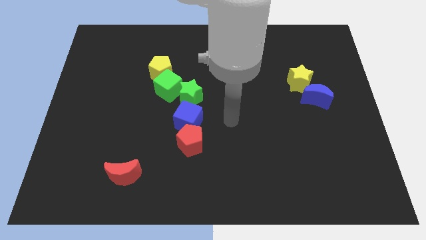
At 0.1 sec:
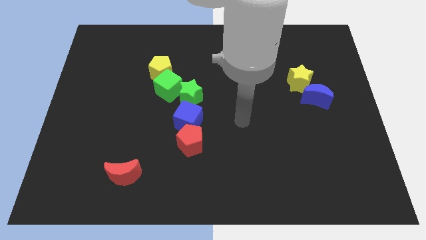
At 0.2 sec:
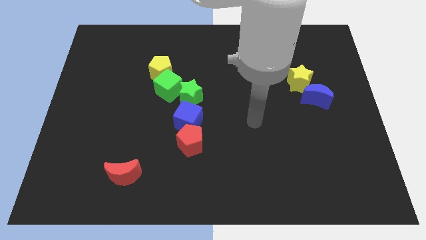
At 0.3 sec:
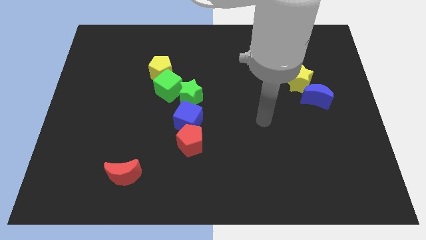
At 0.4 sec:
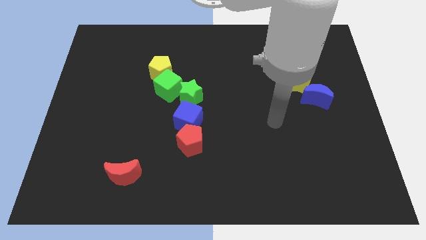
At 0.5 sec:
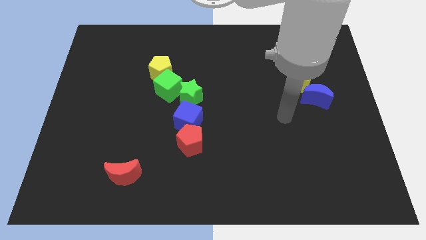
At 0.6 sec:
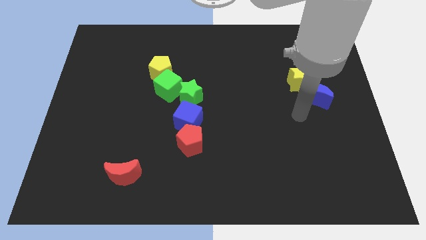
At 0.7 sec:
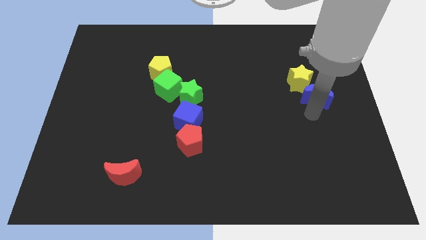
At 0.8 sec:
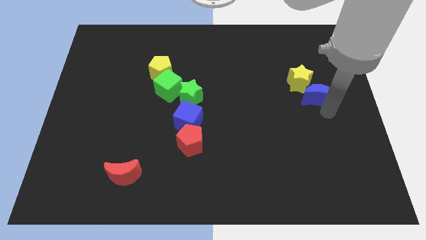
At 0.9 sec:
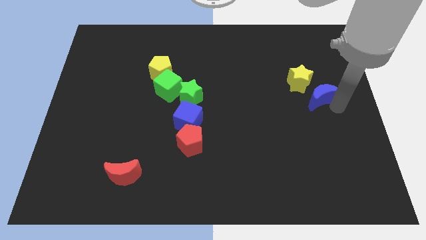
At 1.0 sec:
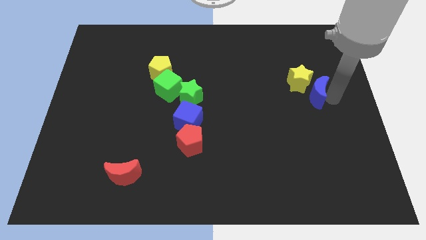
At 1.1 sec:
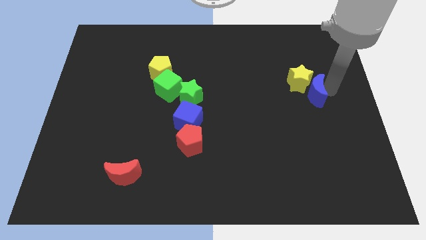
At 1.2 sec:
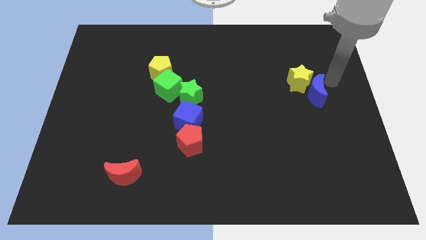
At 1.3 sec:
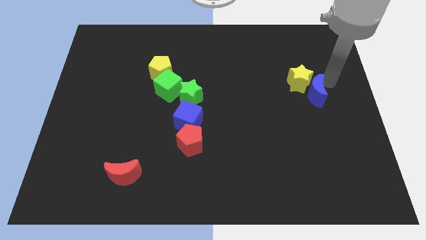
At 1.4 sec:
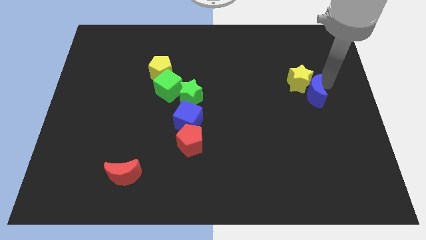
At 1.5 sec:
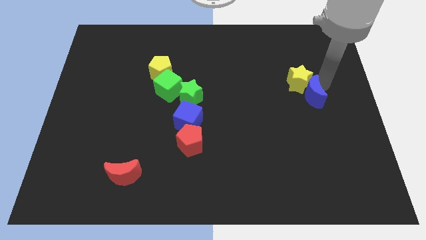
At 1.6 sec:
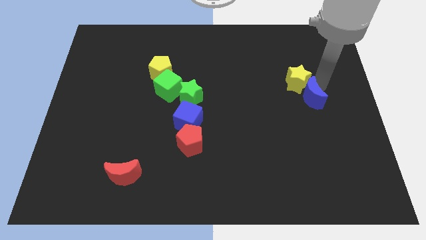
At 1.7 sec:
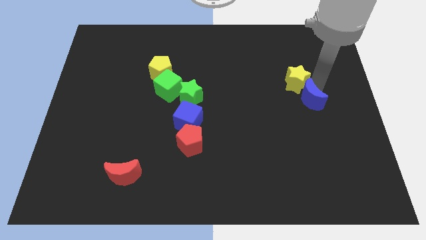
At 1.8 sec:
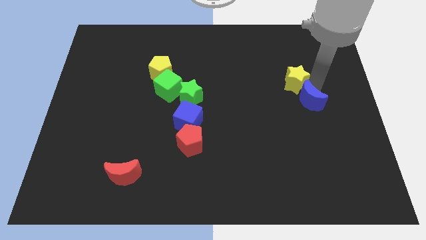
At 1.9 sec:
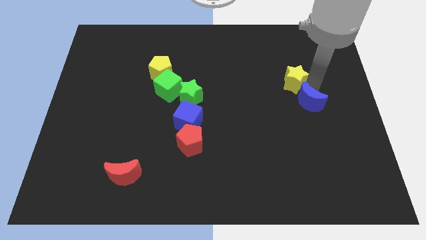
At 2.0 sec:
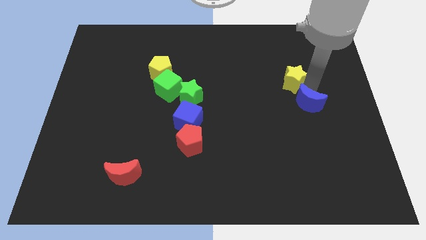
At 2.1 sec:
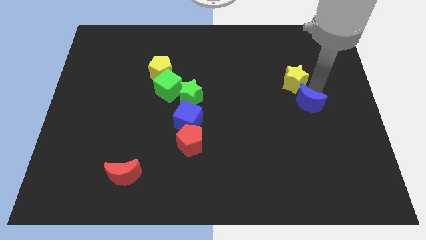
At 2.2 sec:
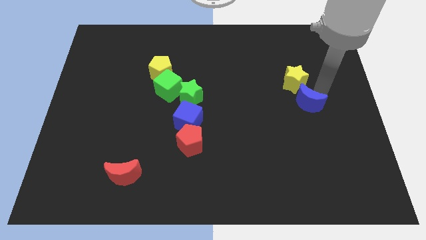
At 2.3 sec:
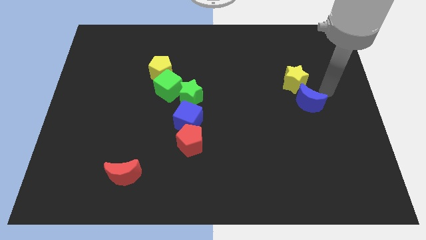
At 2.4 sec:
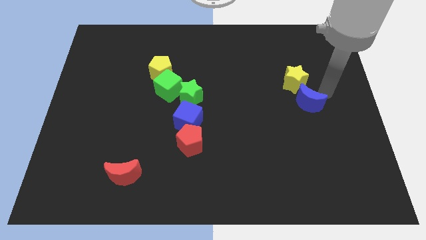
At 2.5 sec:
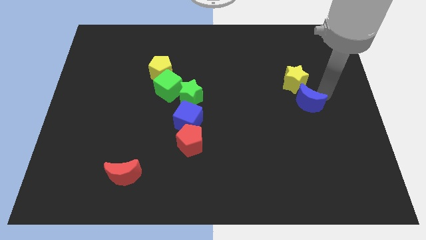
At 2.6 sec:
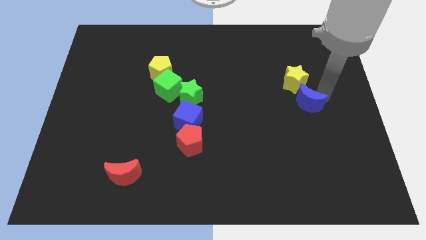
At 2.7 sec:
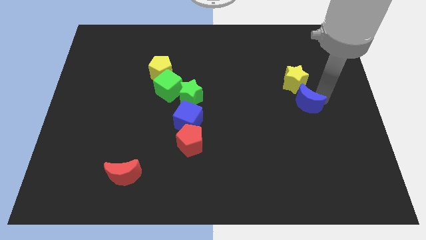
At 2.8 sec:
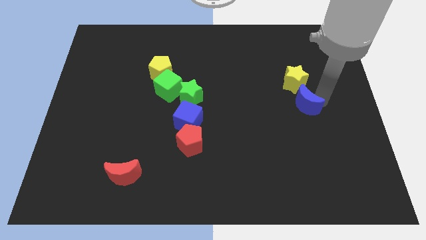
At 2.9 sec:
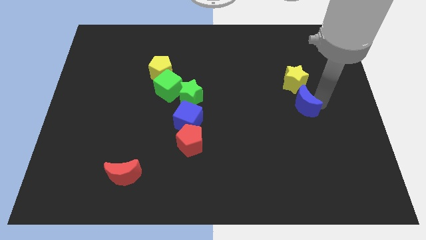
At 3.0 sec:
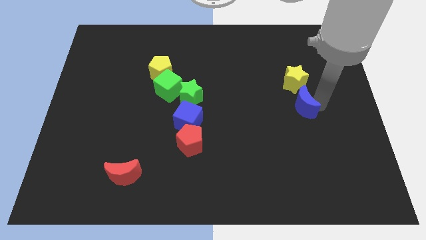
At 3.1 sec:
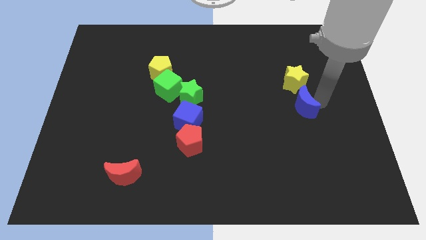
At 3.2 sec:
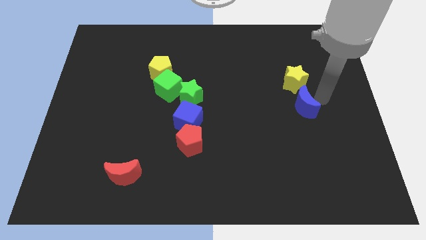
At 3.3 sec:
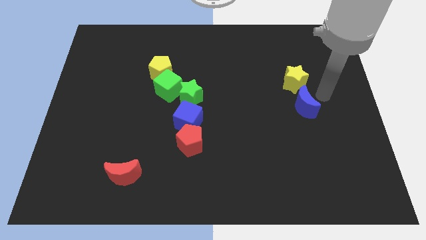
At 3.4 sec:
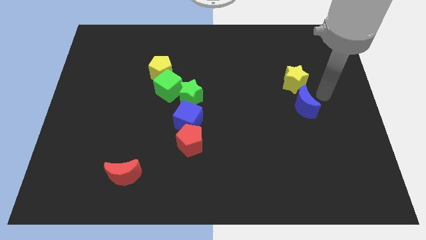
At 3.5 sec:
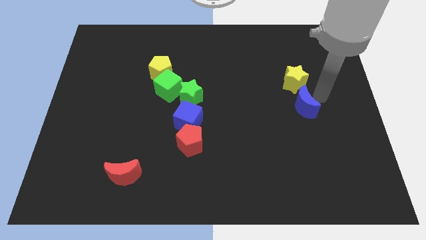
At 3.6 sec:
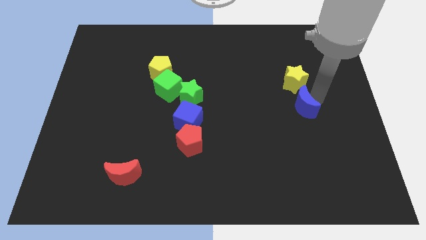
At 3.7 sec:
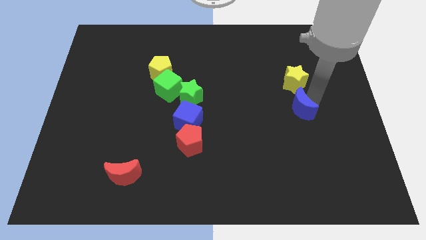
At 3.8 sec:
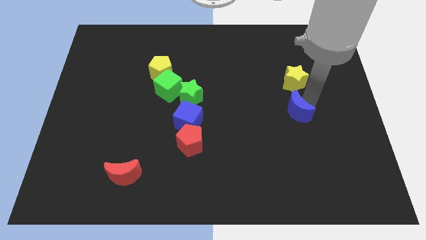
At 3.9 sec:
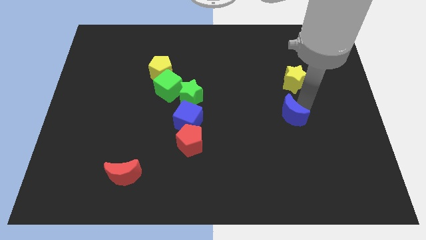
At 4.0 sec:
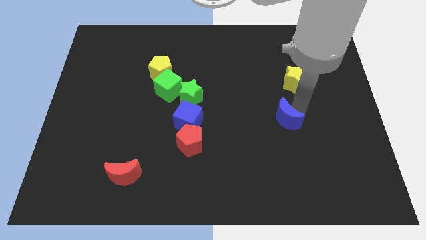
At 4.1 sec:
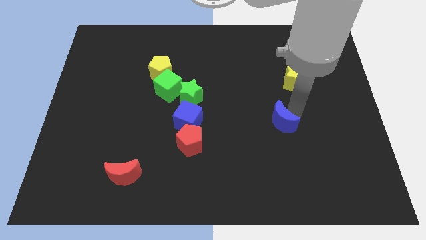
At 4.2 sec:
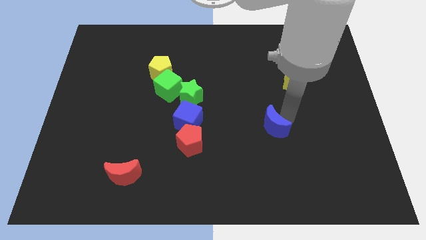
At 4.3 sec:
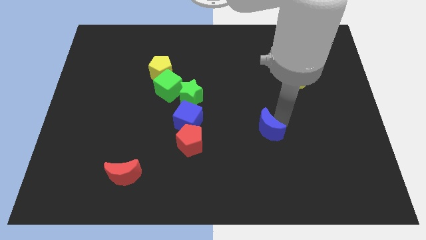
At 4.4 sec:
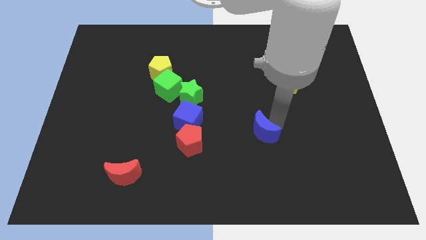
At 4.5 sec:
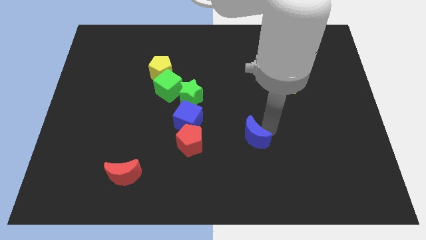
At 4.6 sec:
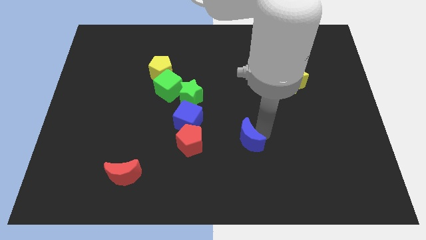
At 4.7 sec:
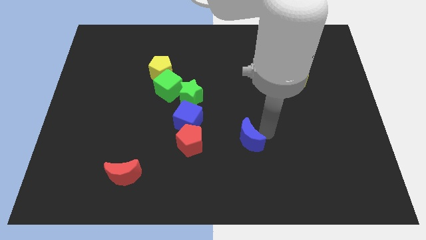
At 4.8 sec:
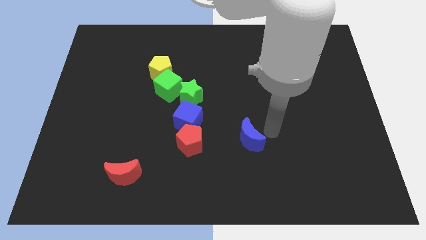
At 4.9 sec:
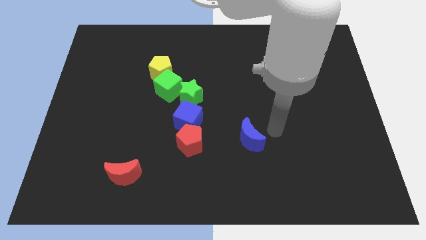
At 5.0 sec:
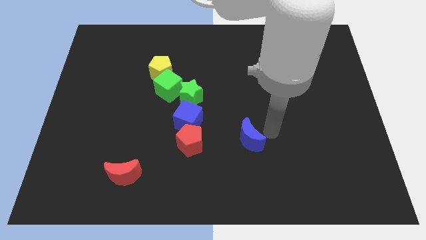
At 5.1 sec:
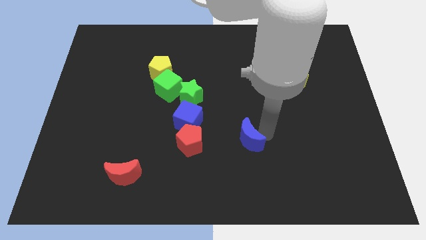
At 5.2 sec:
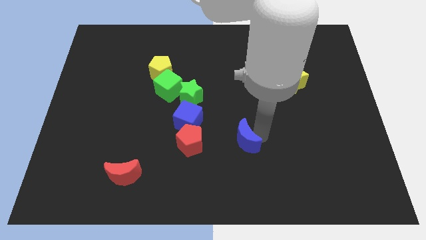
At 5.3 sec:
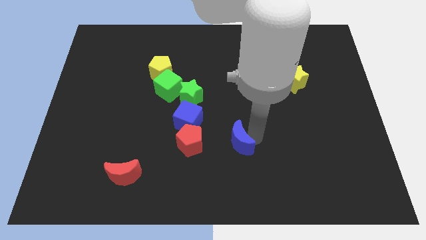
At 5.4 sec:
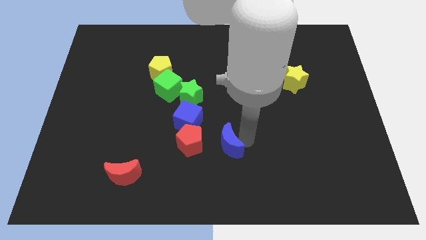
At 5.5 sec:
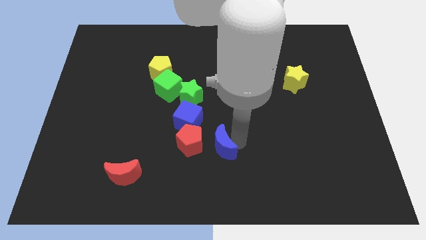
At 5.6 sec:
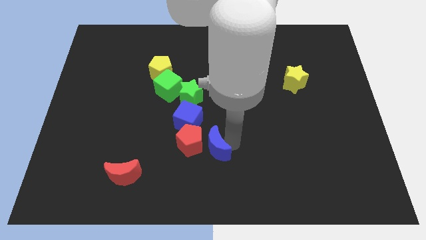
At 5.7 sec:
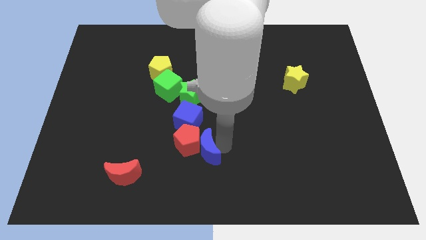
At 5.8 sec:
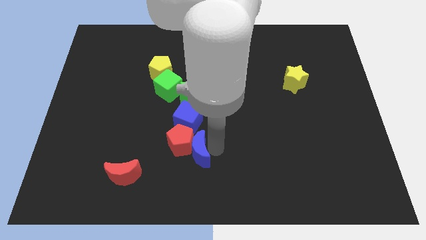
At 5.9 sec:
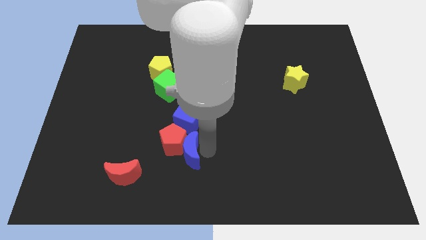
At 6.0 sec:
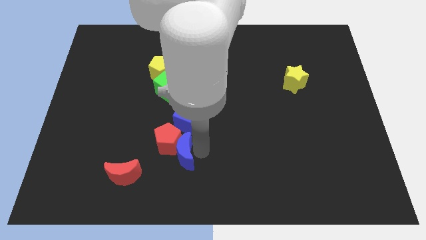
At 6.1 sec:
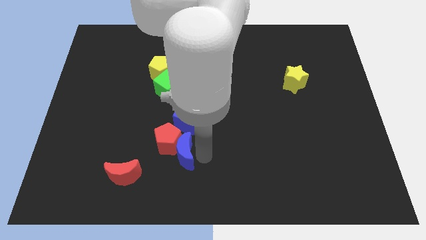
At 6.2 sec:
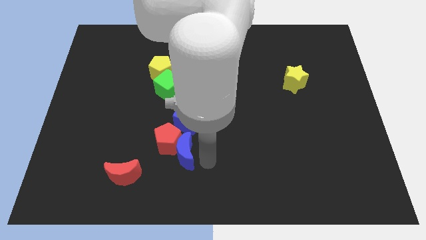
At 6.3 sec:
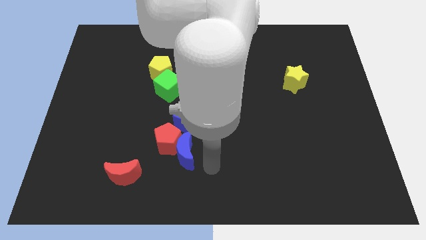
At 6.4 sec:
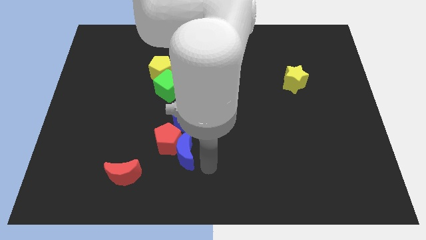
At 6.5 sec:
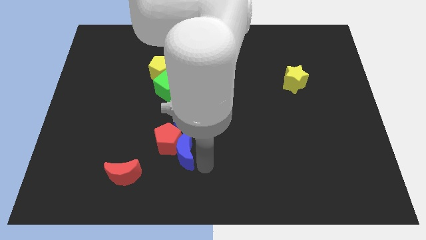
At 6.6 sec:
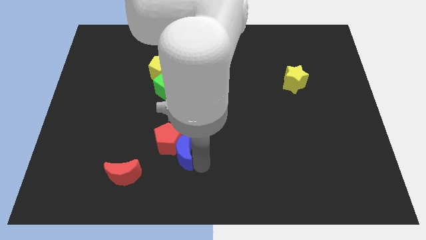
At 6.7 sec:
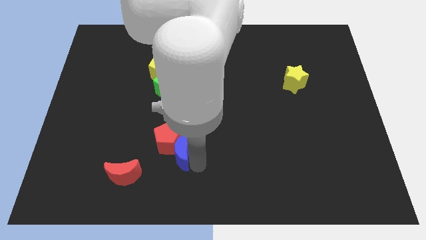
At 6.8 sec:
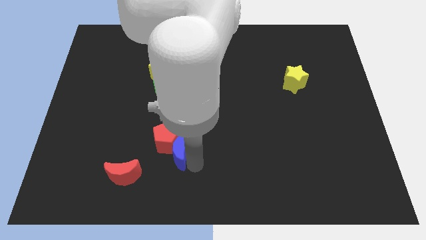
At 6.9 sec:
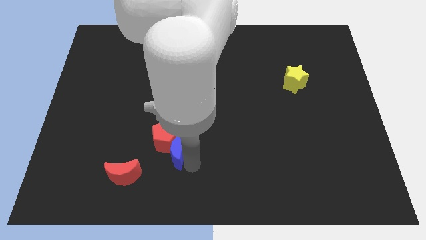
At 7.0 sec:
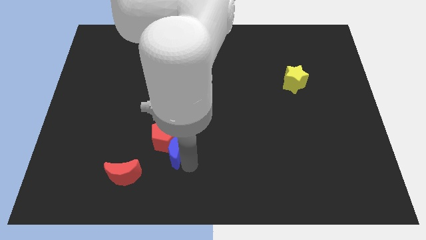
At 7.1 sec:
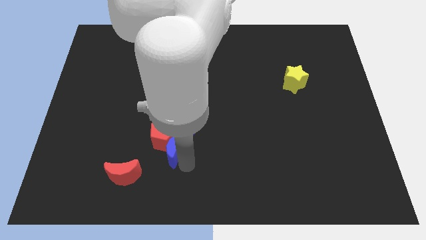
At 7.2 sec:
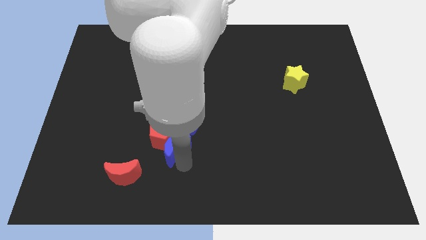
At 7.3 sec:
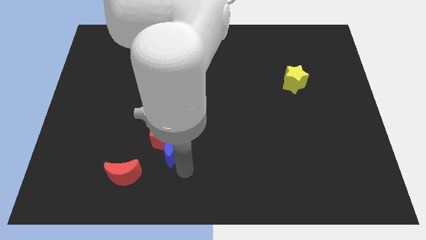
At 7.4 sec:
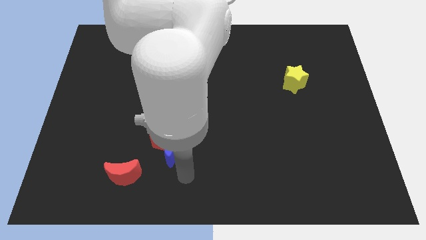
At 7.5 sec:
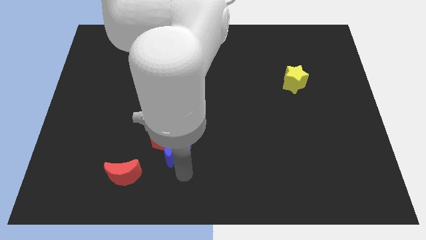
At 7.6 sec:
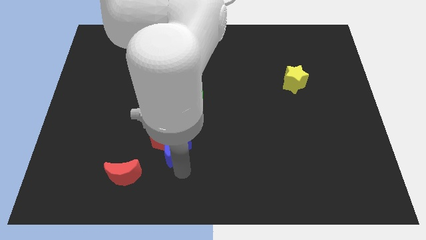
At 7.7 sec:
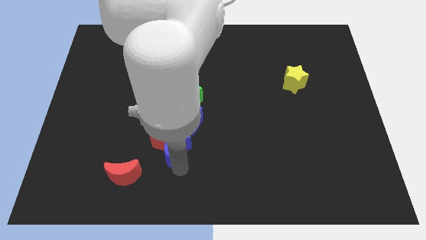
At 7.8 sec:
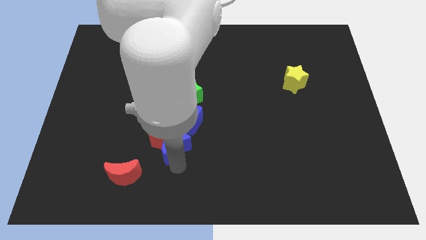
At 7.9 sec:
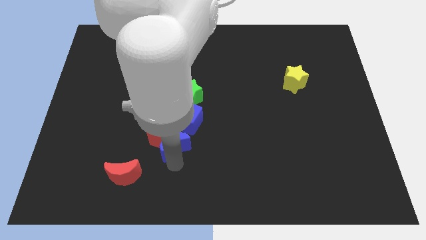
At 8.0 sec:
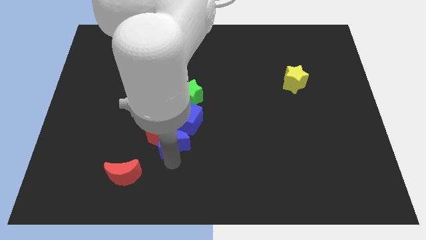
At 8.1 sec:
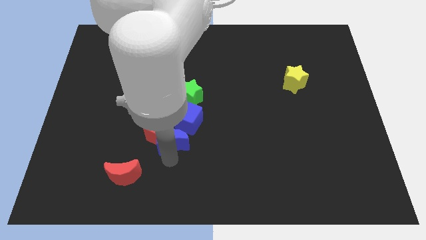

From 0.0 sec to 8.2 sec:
put the blue moon to the bottom of the green cube
